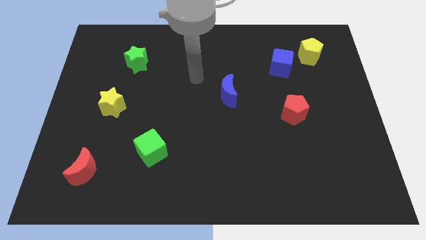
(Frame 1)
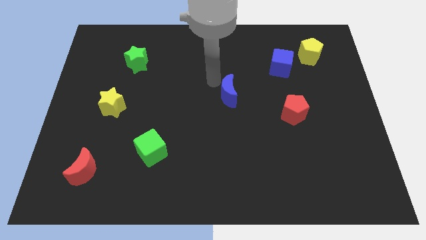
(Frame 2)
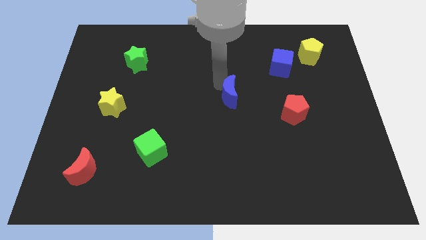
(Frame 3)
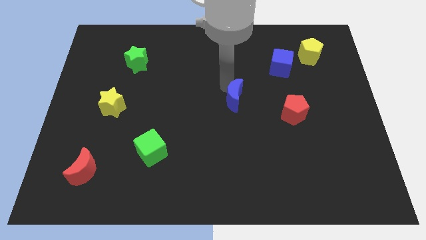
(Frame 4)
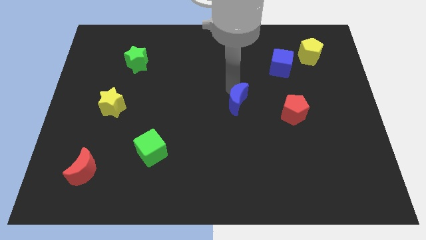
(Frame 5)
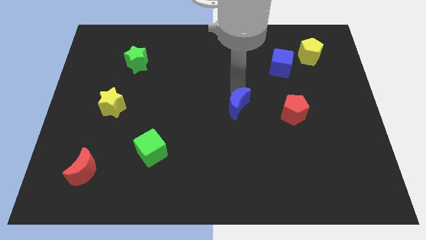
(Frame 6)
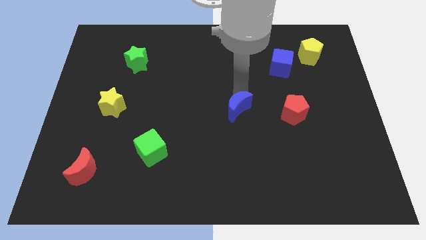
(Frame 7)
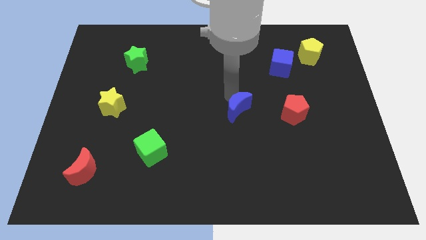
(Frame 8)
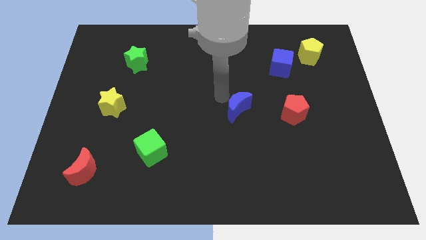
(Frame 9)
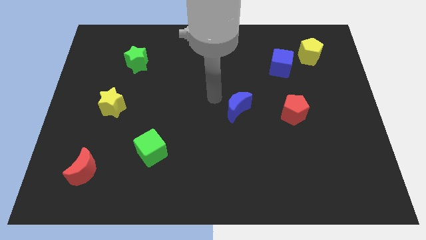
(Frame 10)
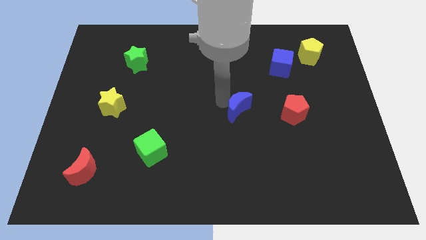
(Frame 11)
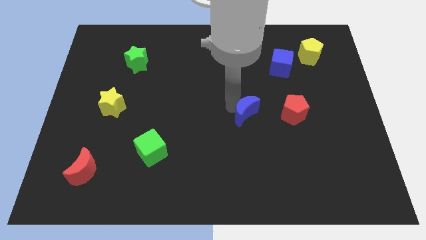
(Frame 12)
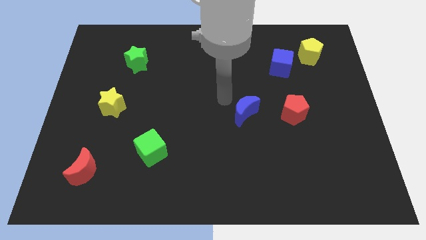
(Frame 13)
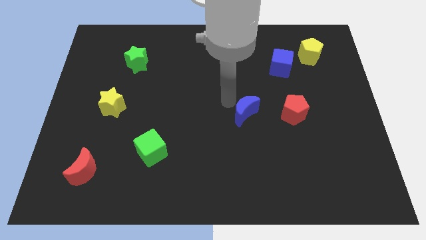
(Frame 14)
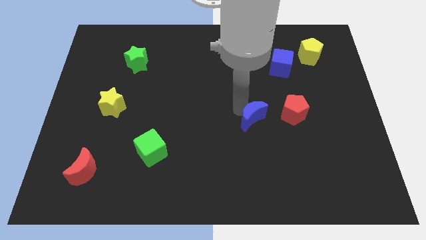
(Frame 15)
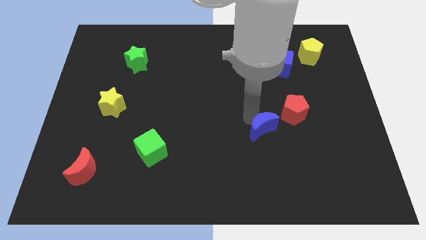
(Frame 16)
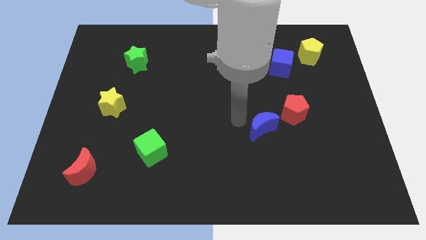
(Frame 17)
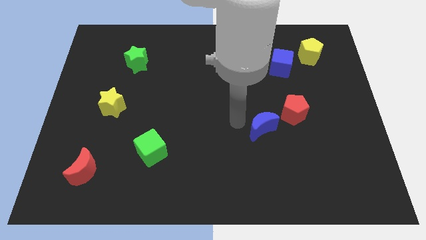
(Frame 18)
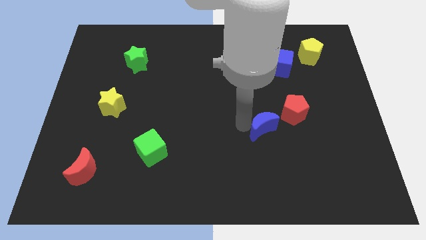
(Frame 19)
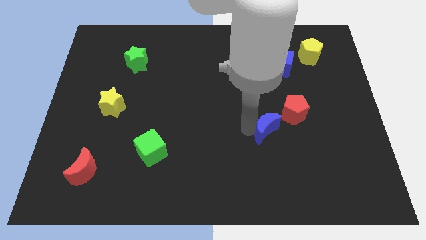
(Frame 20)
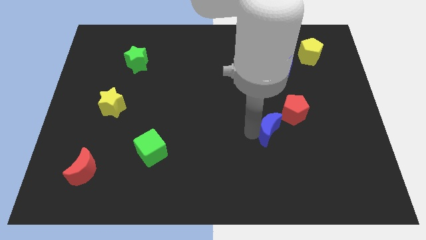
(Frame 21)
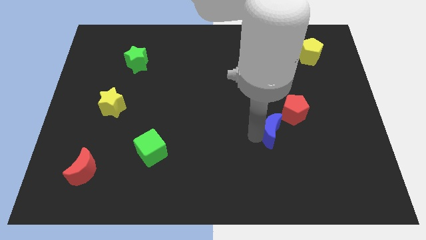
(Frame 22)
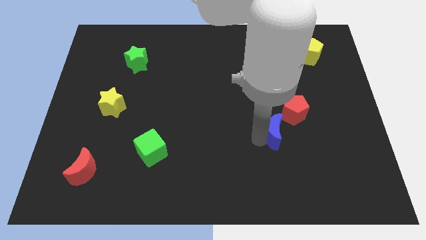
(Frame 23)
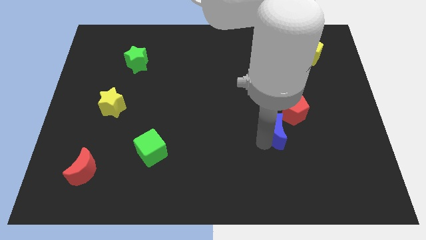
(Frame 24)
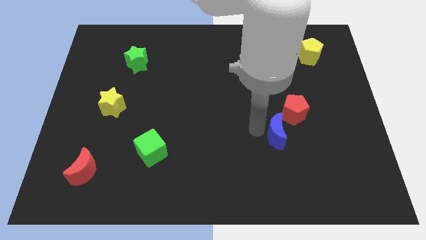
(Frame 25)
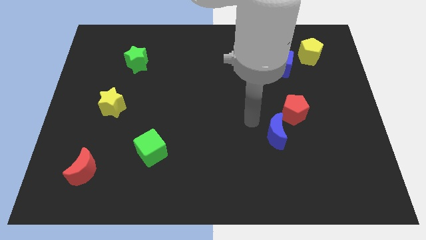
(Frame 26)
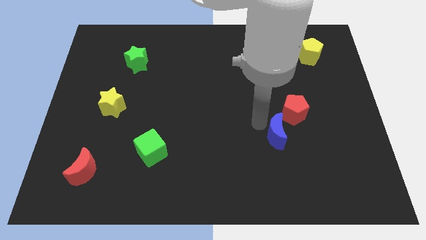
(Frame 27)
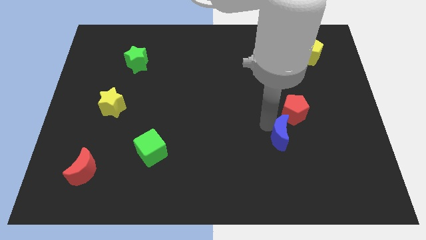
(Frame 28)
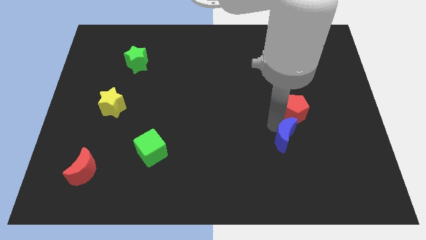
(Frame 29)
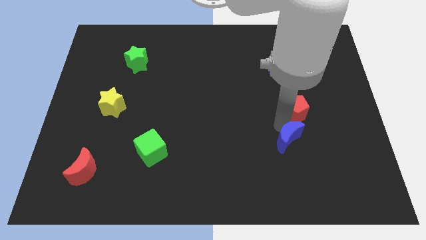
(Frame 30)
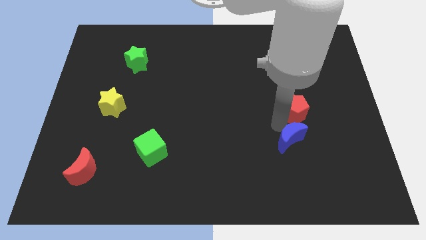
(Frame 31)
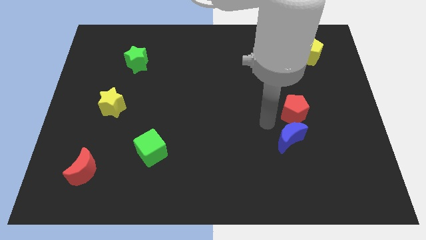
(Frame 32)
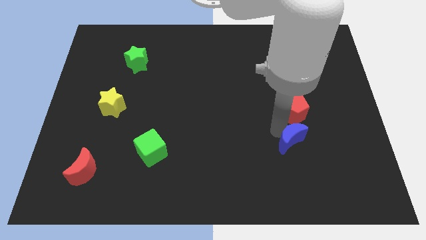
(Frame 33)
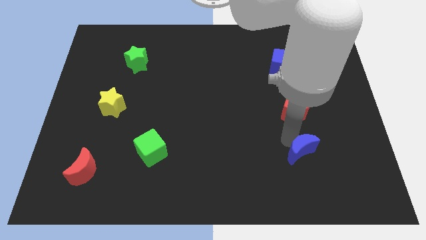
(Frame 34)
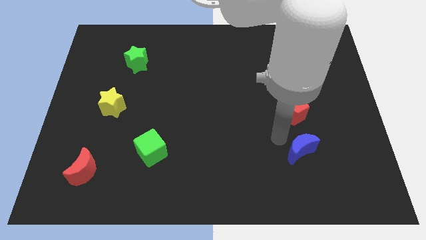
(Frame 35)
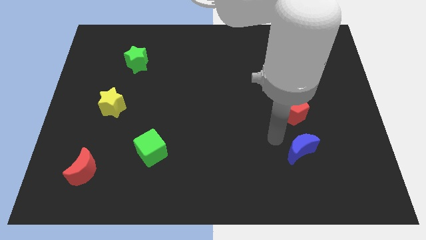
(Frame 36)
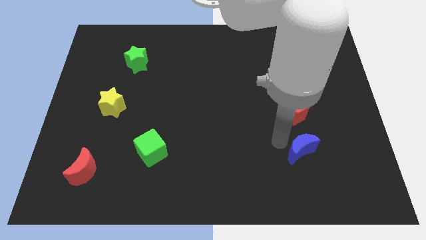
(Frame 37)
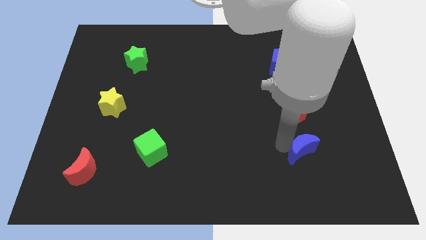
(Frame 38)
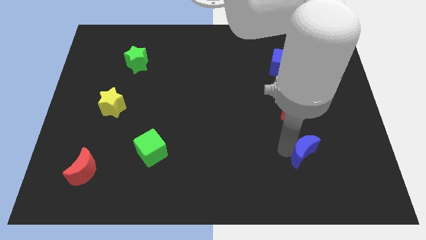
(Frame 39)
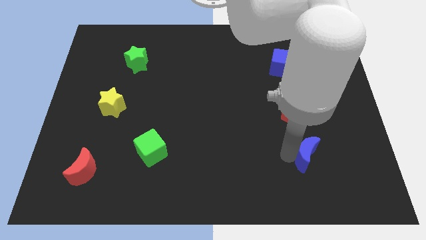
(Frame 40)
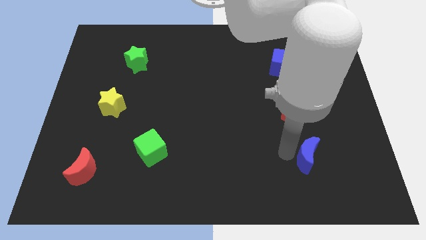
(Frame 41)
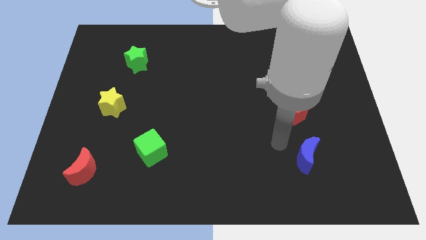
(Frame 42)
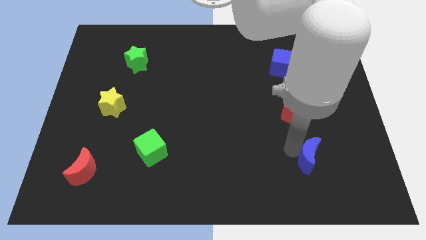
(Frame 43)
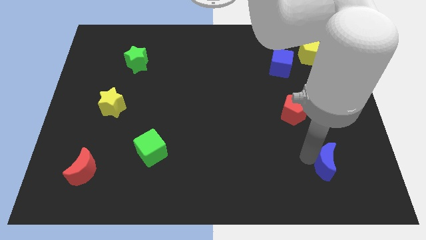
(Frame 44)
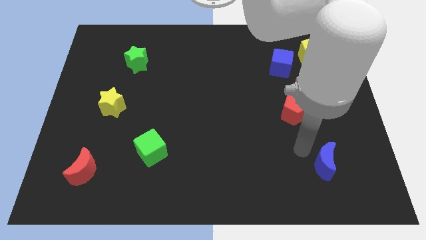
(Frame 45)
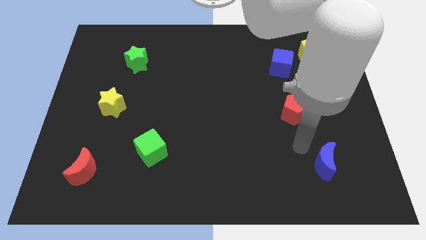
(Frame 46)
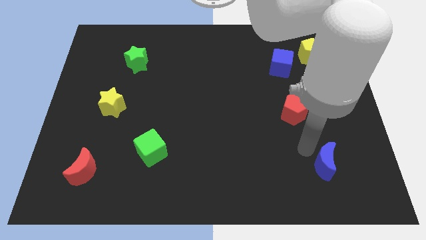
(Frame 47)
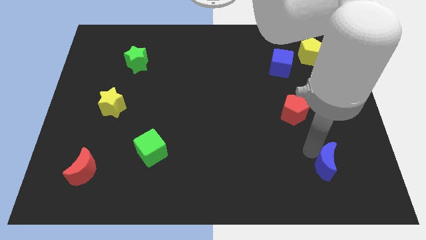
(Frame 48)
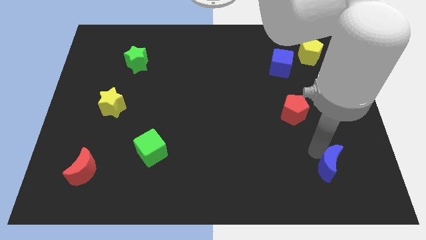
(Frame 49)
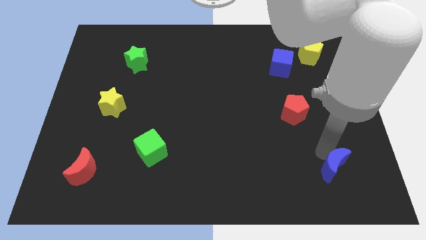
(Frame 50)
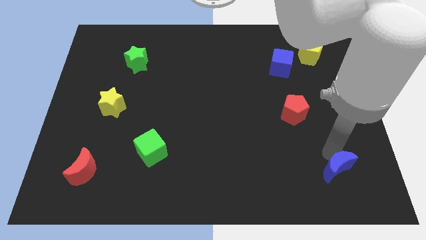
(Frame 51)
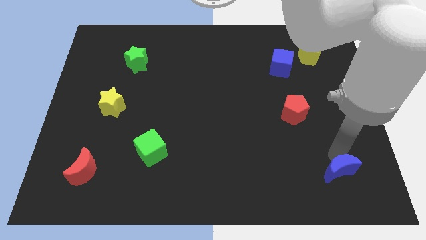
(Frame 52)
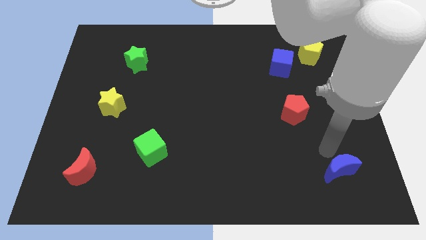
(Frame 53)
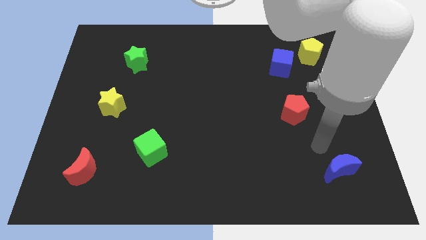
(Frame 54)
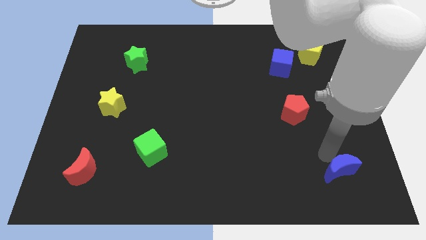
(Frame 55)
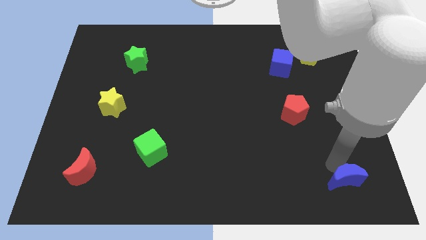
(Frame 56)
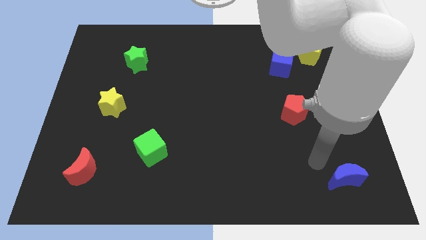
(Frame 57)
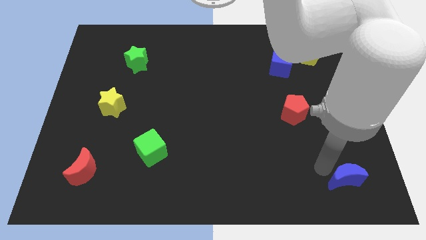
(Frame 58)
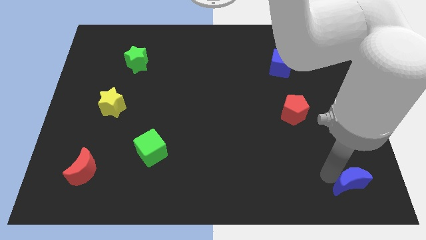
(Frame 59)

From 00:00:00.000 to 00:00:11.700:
put the blue moon to the lower right corner
